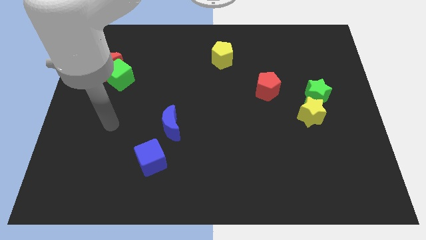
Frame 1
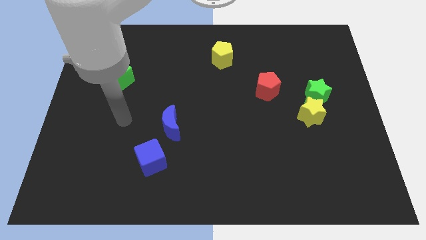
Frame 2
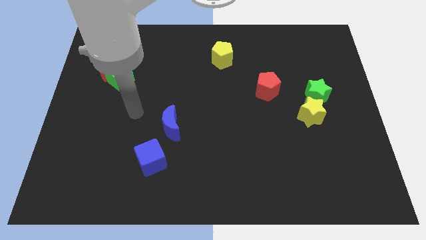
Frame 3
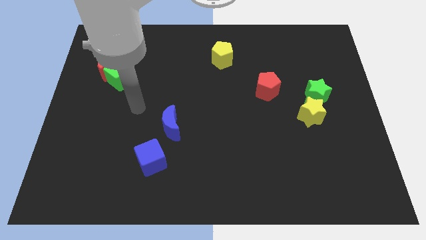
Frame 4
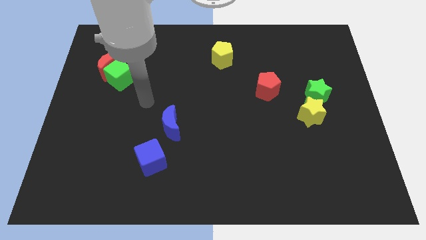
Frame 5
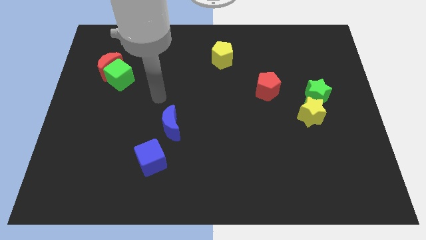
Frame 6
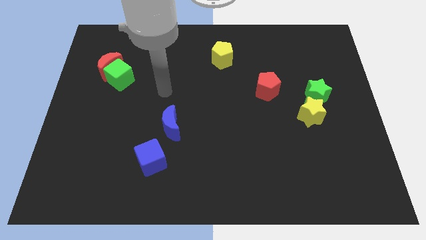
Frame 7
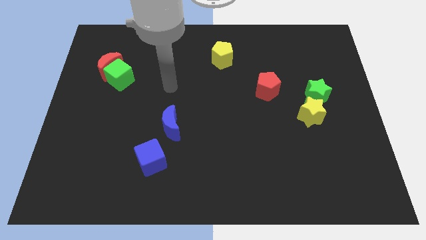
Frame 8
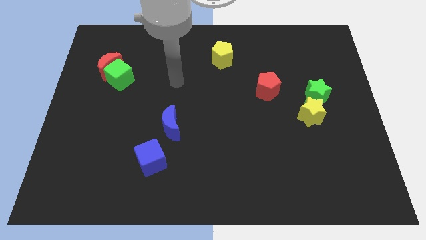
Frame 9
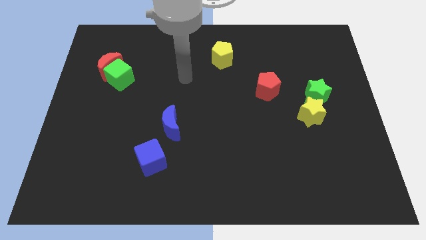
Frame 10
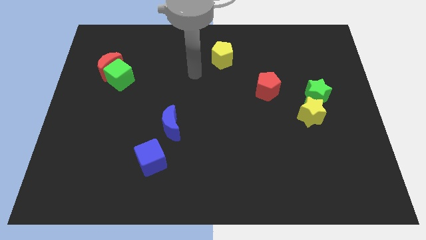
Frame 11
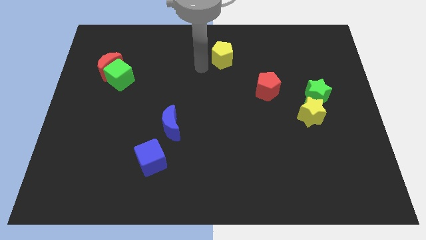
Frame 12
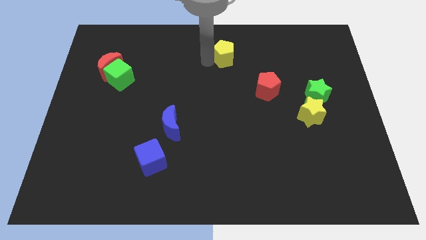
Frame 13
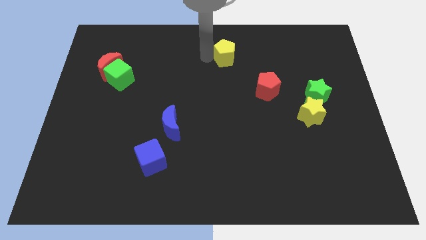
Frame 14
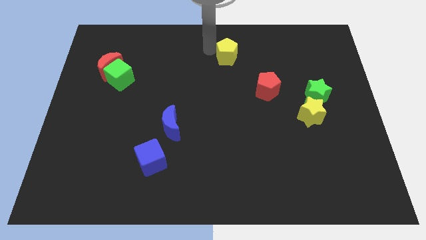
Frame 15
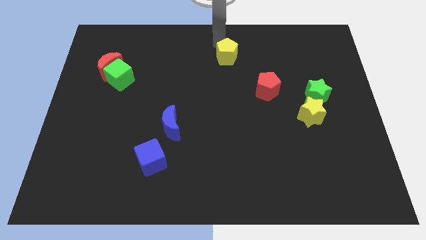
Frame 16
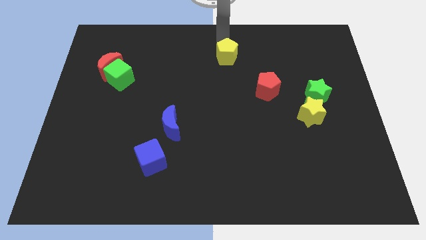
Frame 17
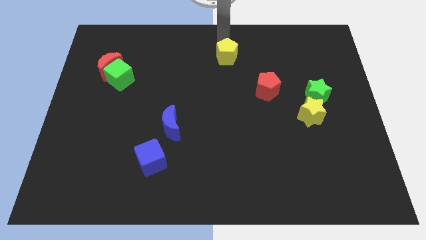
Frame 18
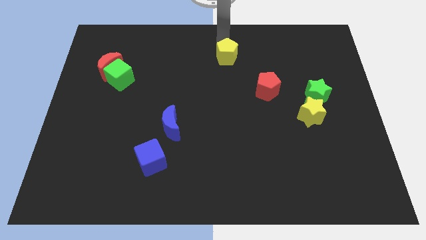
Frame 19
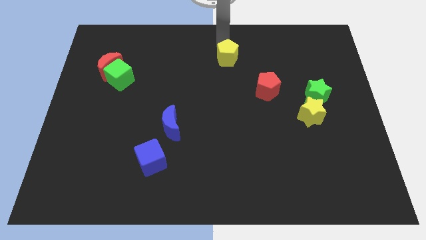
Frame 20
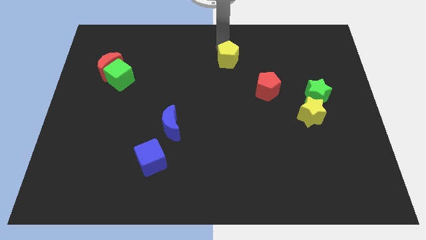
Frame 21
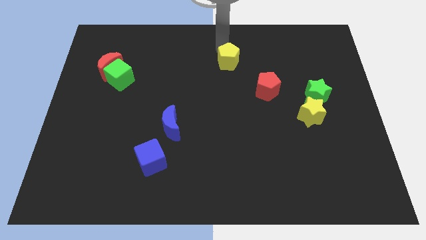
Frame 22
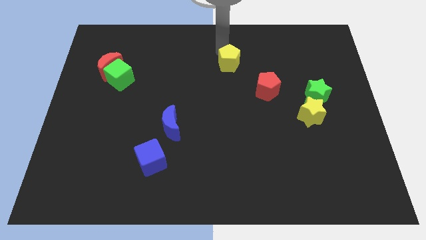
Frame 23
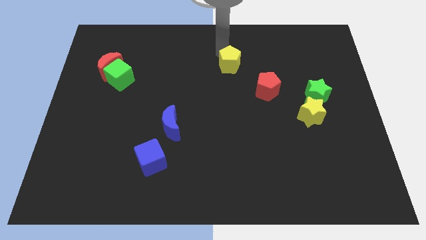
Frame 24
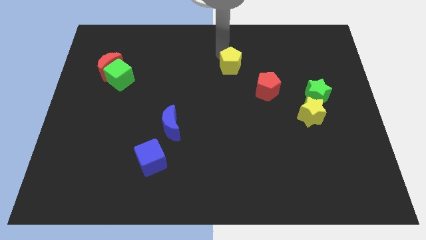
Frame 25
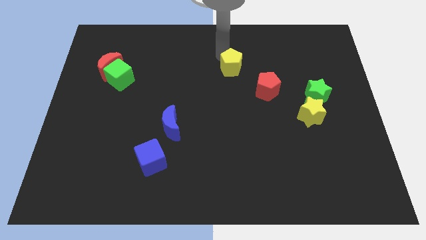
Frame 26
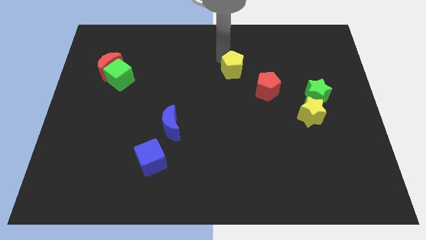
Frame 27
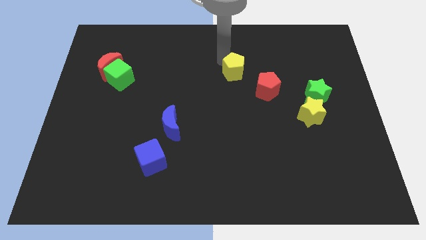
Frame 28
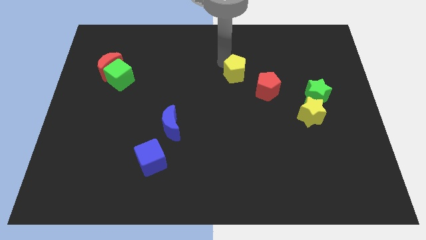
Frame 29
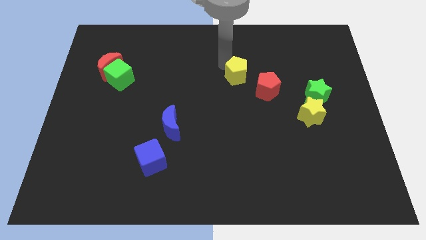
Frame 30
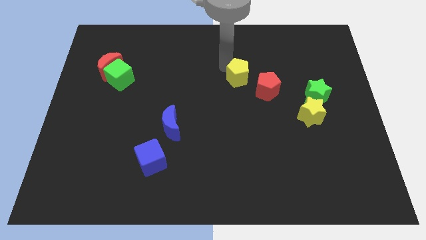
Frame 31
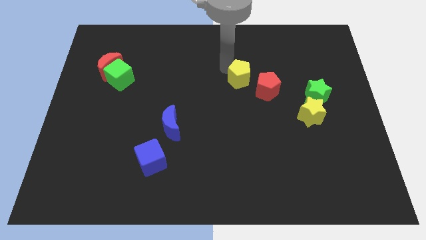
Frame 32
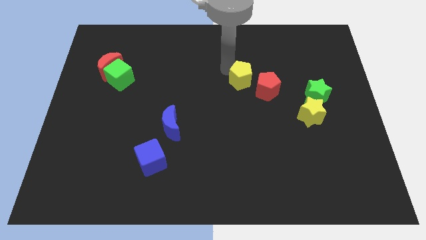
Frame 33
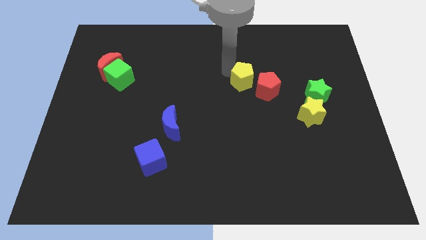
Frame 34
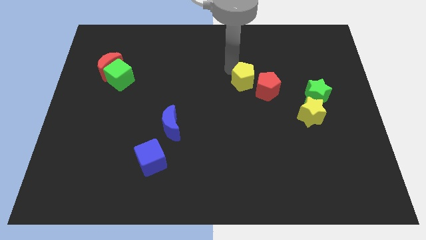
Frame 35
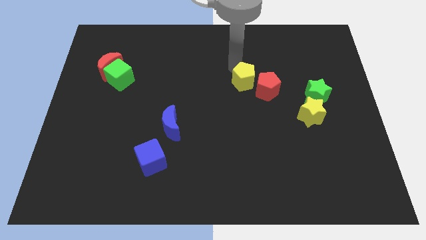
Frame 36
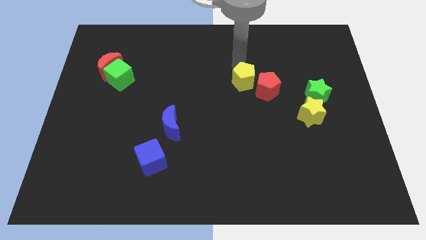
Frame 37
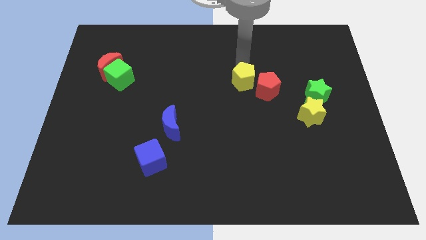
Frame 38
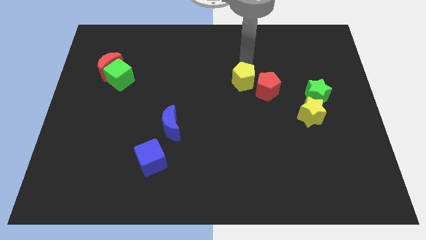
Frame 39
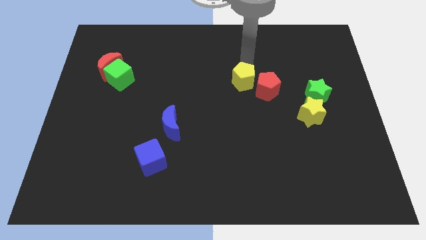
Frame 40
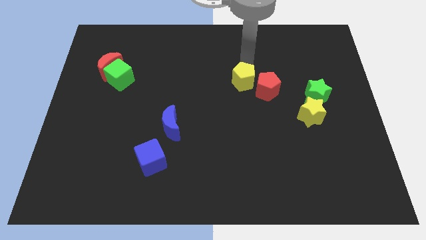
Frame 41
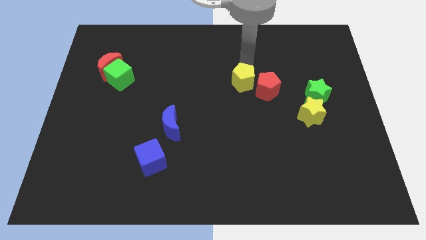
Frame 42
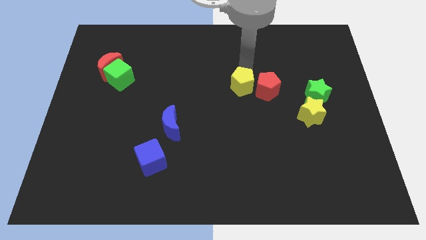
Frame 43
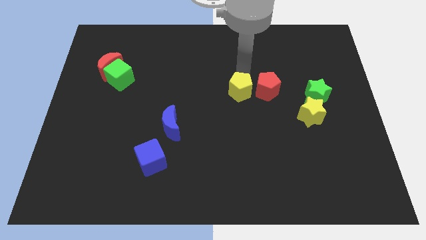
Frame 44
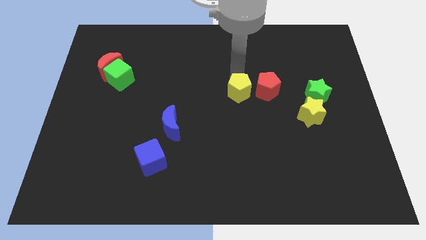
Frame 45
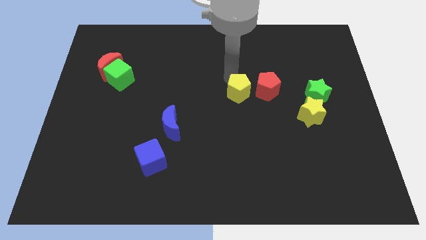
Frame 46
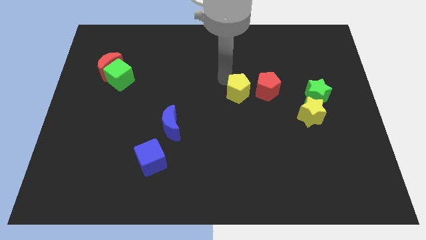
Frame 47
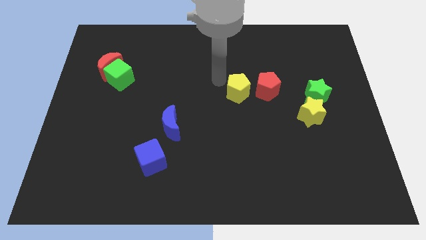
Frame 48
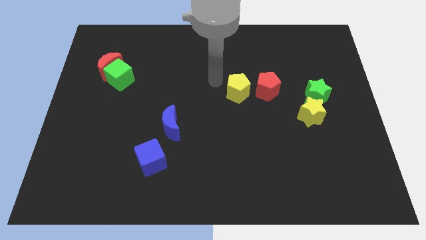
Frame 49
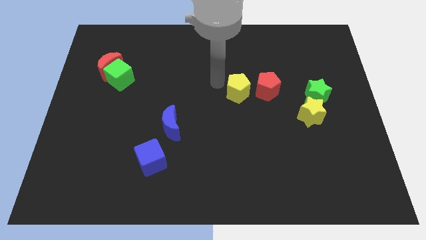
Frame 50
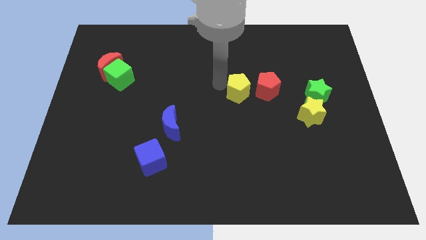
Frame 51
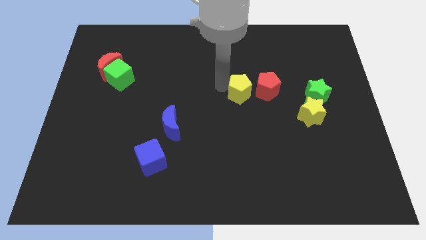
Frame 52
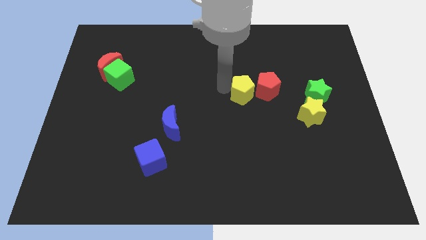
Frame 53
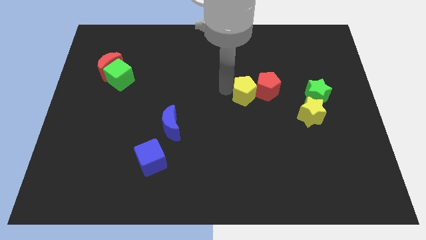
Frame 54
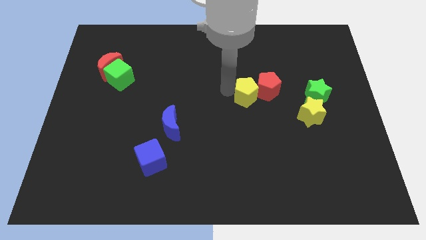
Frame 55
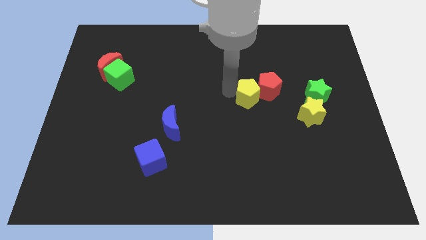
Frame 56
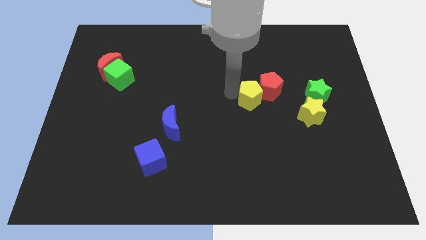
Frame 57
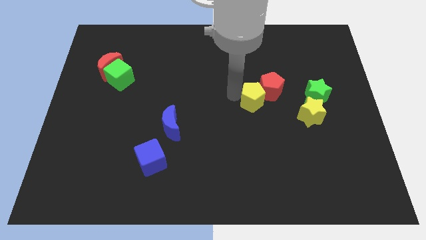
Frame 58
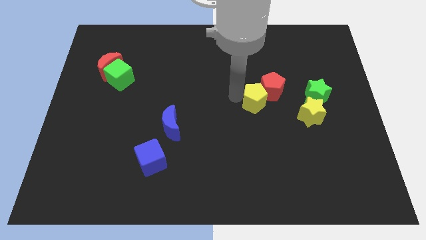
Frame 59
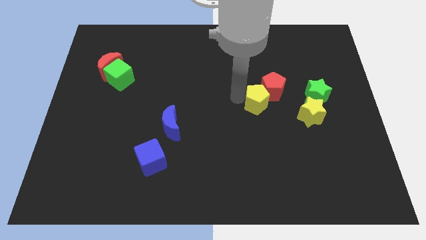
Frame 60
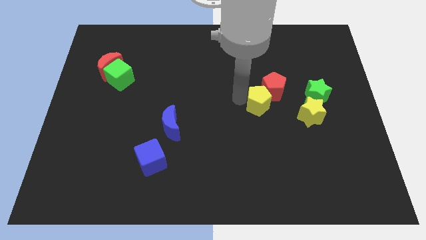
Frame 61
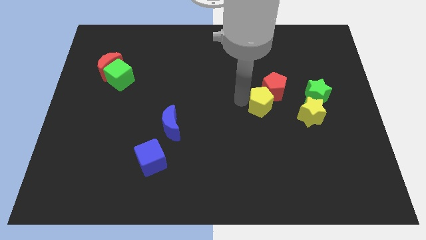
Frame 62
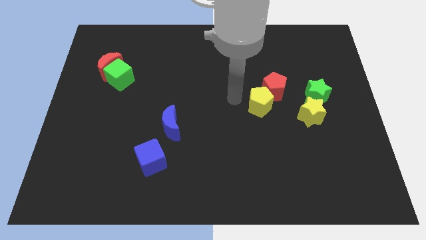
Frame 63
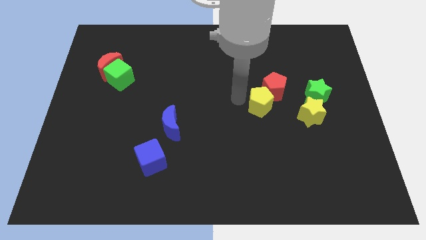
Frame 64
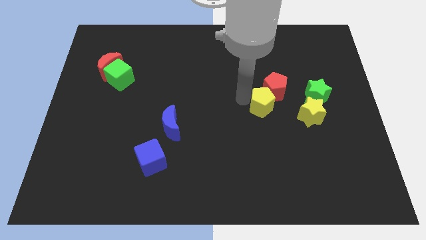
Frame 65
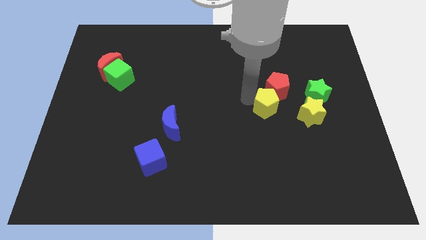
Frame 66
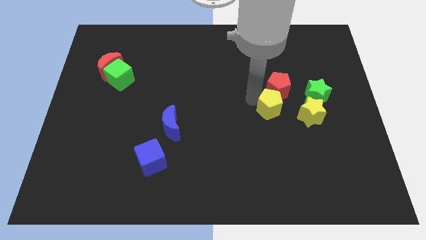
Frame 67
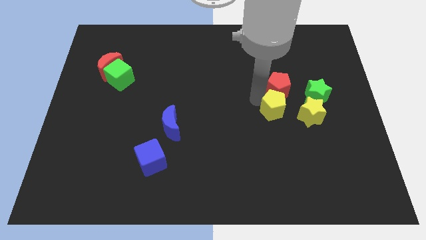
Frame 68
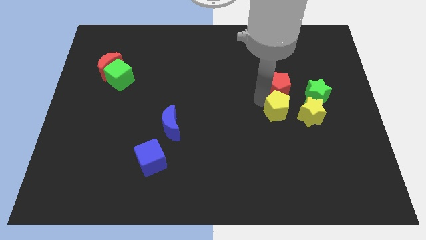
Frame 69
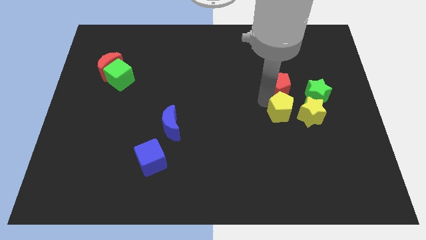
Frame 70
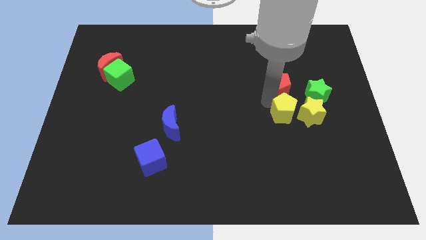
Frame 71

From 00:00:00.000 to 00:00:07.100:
push the yellow pentagon towards the yellow star

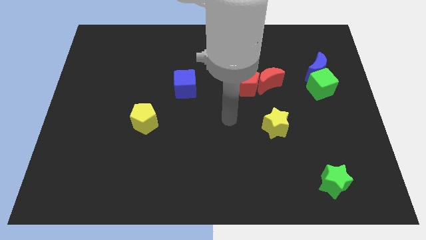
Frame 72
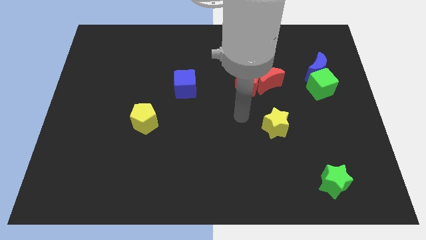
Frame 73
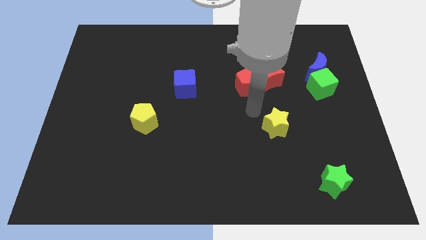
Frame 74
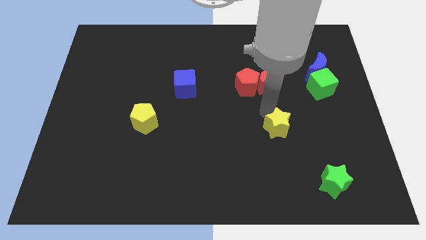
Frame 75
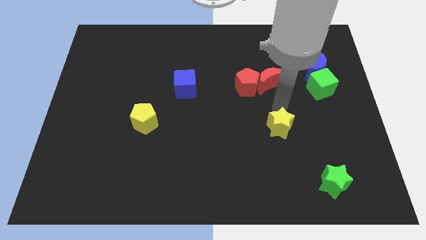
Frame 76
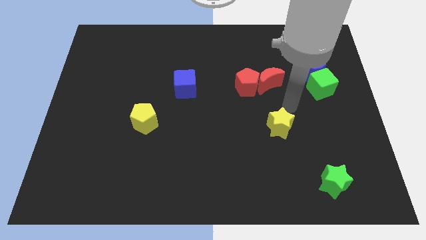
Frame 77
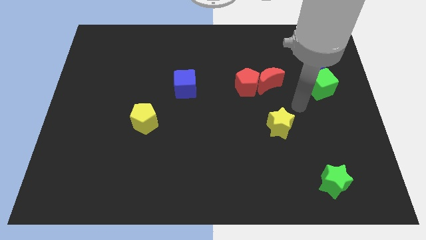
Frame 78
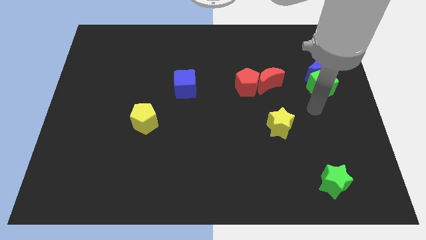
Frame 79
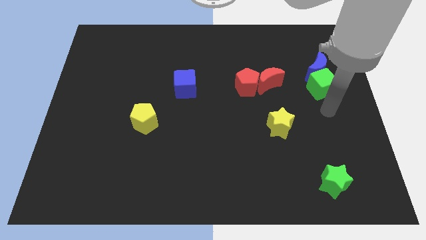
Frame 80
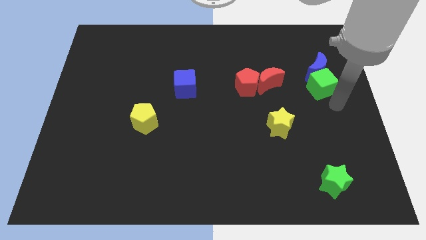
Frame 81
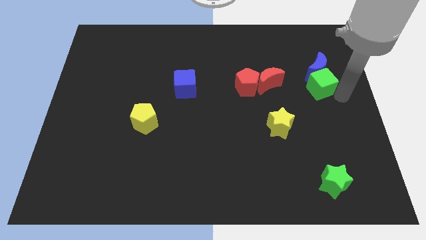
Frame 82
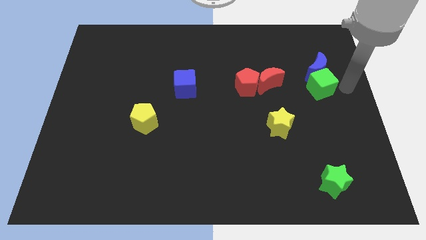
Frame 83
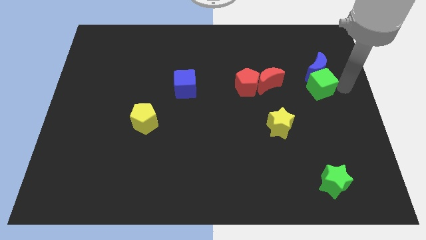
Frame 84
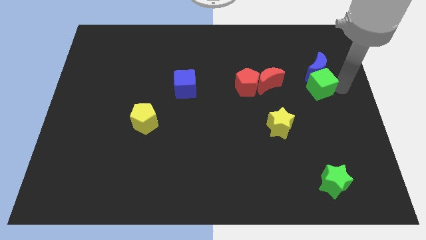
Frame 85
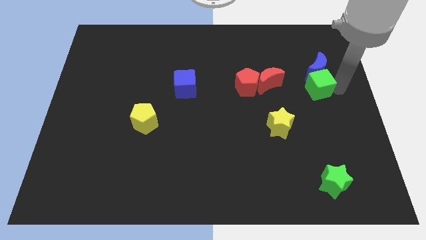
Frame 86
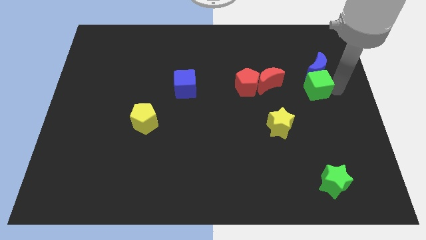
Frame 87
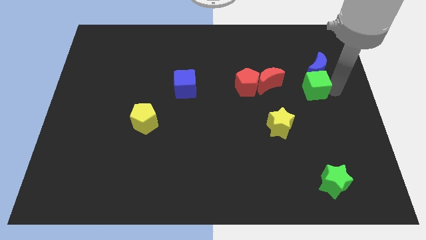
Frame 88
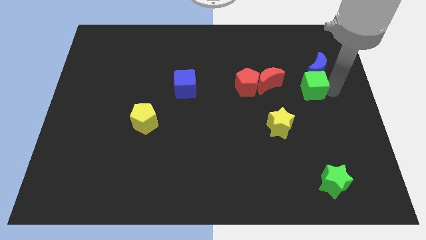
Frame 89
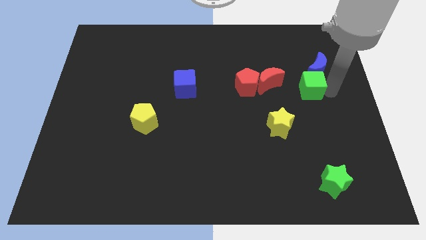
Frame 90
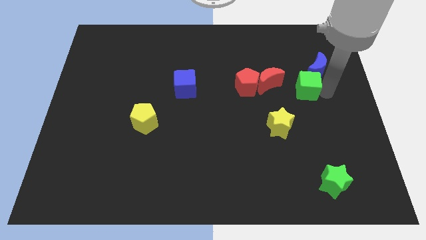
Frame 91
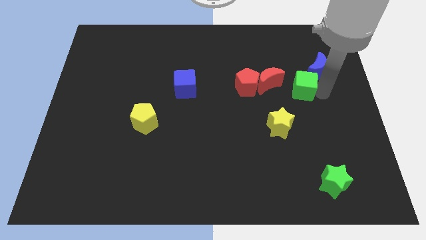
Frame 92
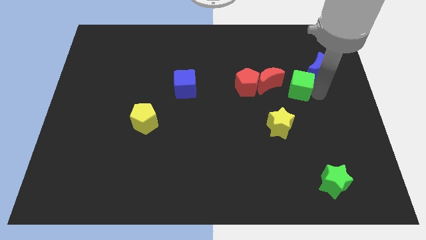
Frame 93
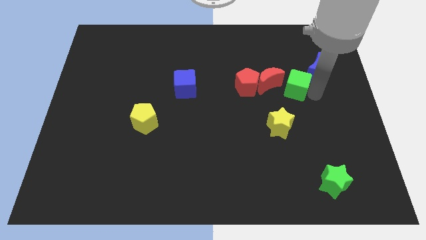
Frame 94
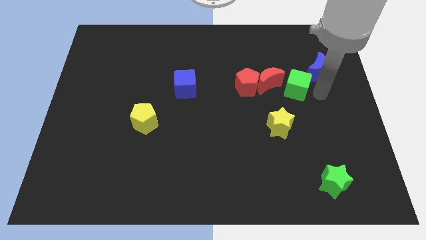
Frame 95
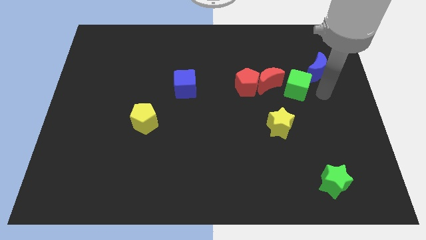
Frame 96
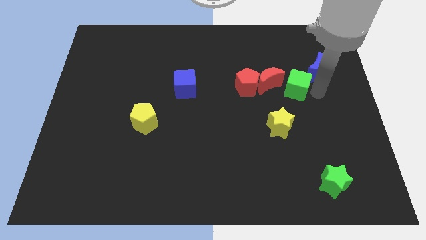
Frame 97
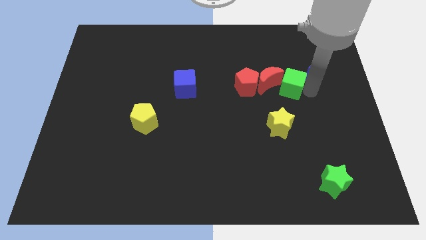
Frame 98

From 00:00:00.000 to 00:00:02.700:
slide the green cube next to the red moon
